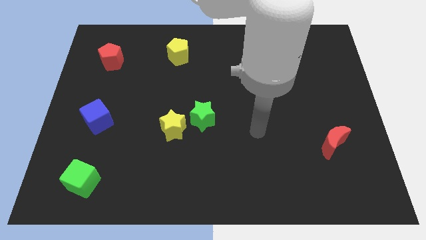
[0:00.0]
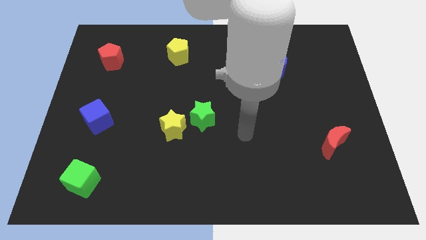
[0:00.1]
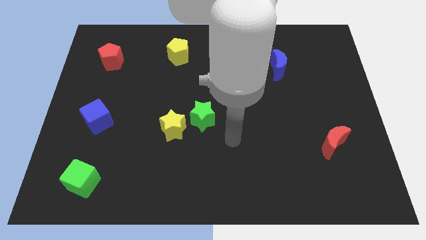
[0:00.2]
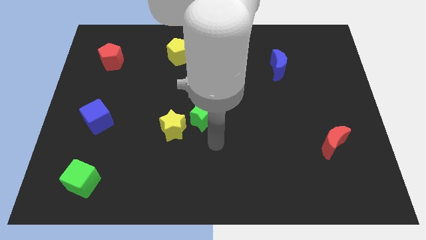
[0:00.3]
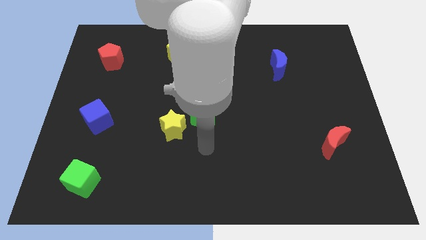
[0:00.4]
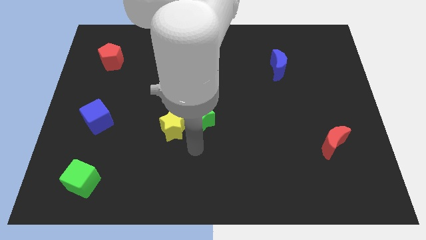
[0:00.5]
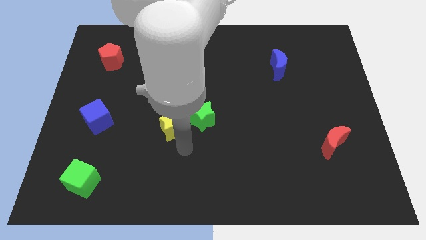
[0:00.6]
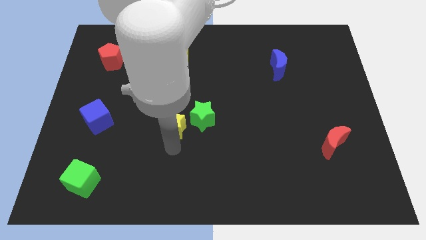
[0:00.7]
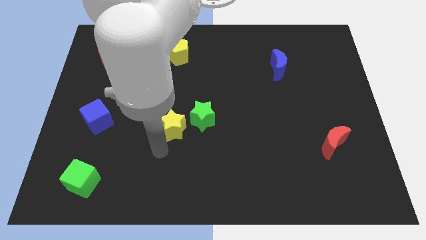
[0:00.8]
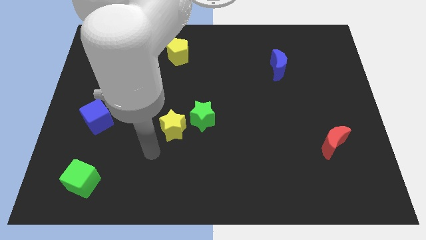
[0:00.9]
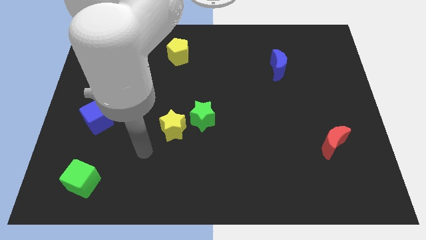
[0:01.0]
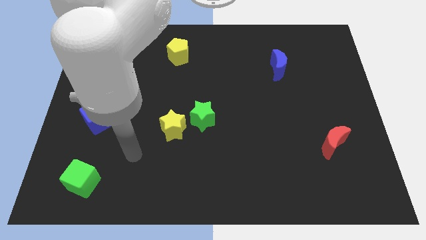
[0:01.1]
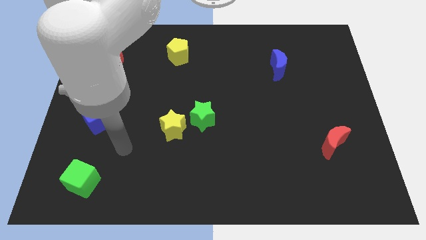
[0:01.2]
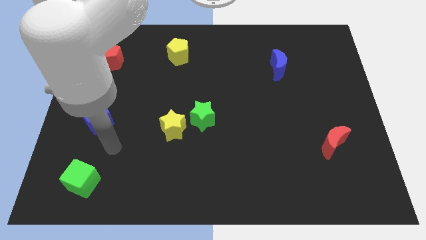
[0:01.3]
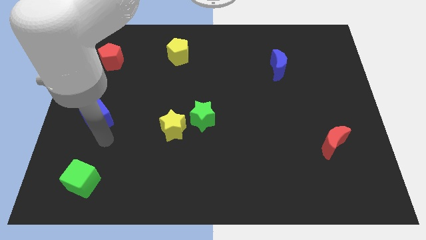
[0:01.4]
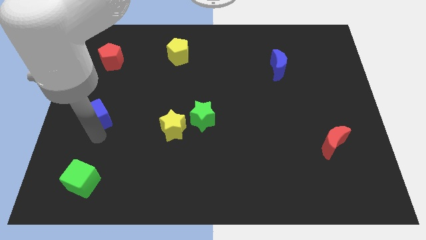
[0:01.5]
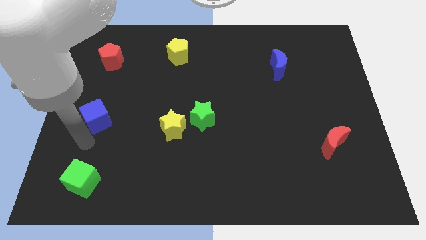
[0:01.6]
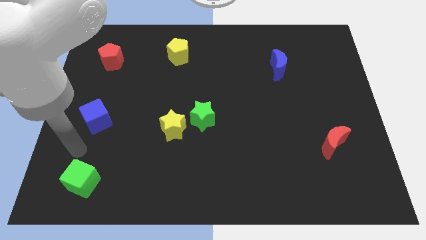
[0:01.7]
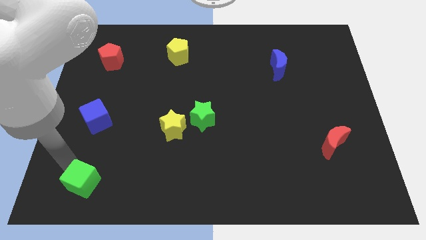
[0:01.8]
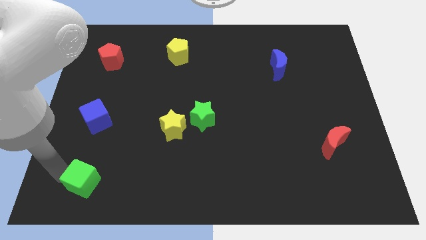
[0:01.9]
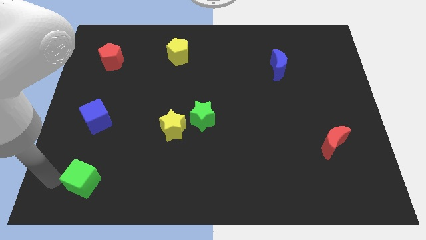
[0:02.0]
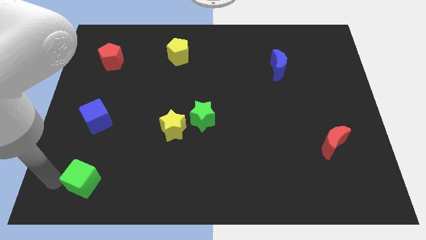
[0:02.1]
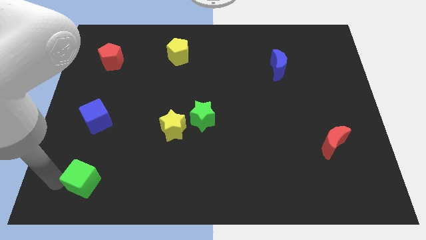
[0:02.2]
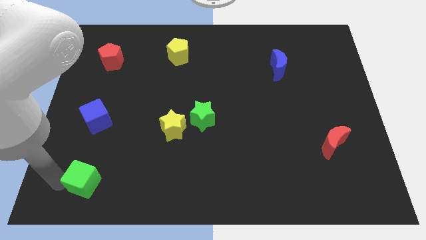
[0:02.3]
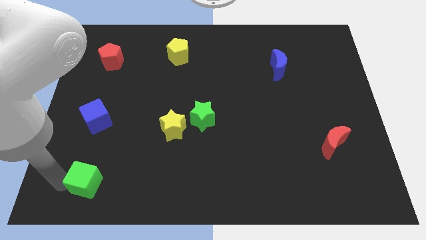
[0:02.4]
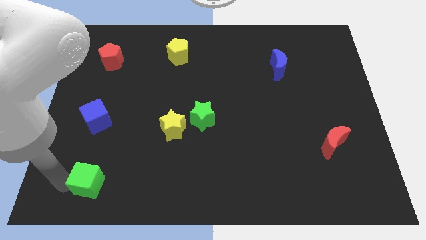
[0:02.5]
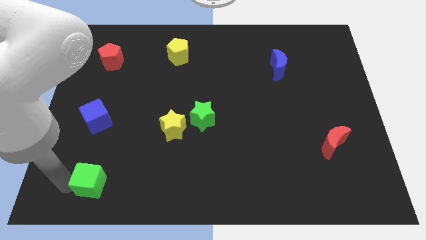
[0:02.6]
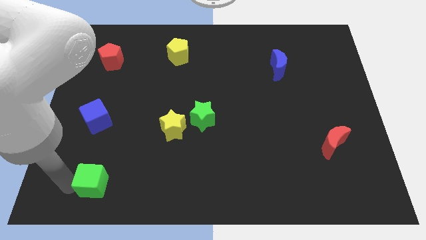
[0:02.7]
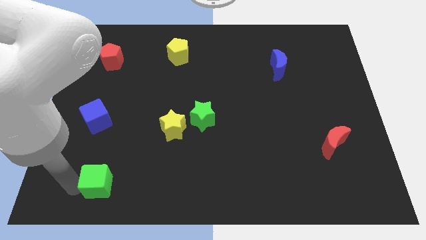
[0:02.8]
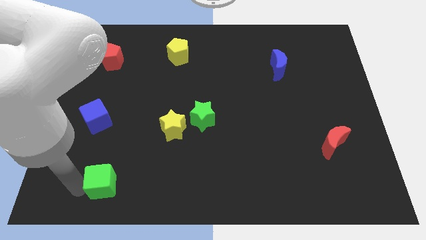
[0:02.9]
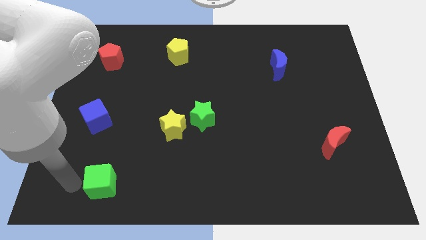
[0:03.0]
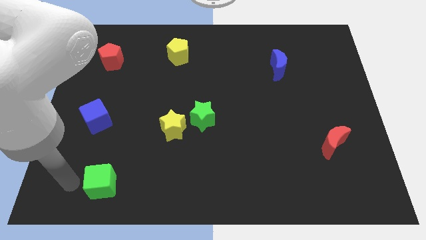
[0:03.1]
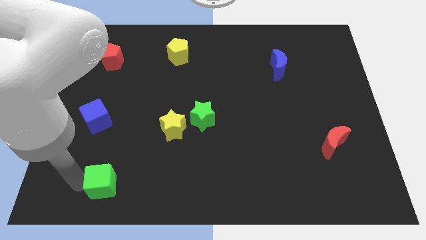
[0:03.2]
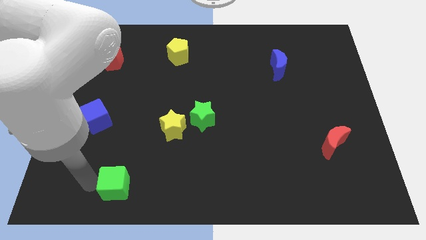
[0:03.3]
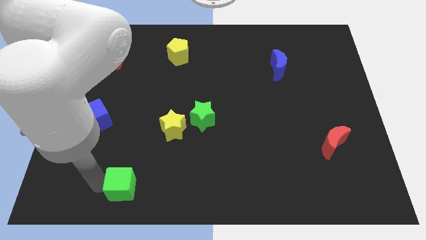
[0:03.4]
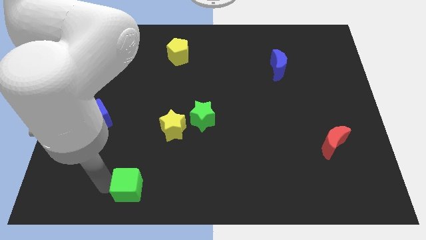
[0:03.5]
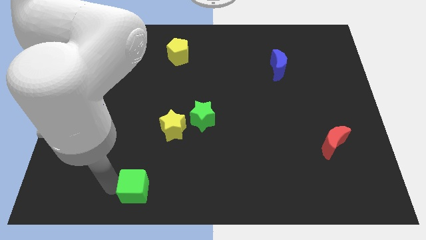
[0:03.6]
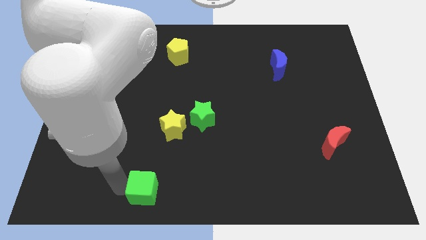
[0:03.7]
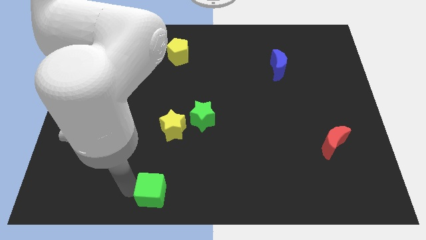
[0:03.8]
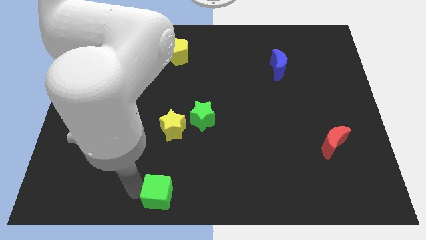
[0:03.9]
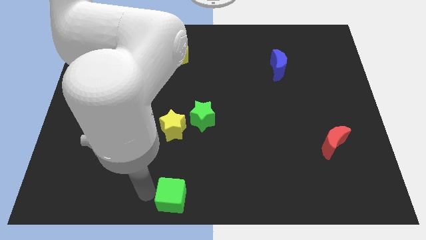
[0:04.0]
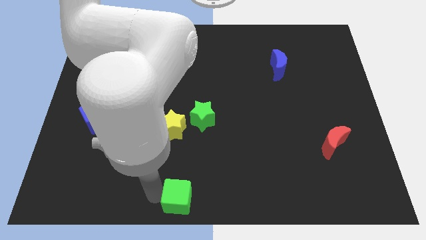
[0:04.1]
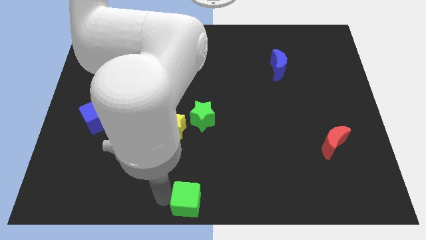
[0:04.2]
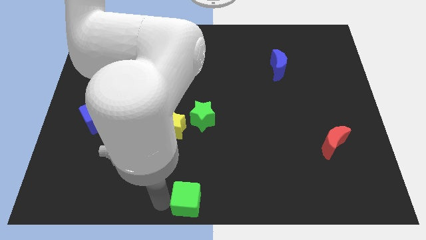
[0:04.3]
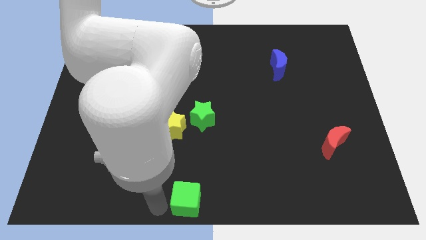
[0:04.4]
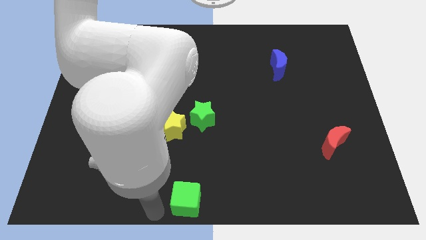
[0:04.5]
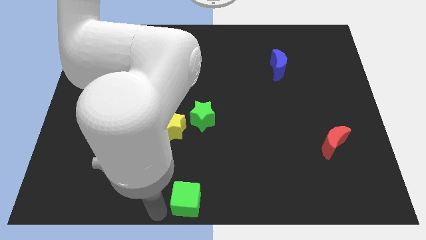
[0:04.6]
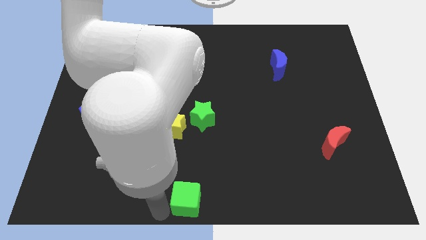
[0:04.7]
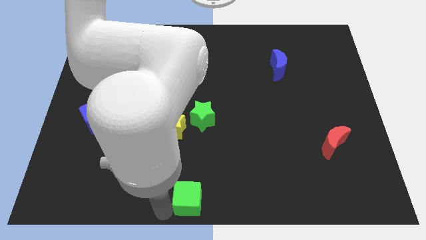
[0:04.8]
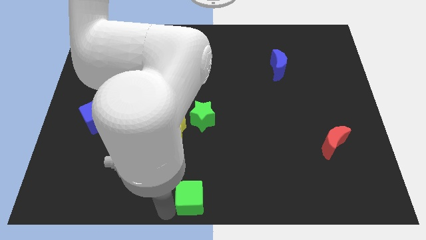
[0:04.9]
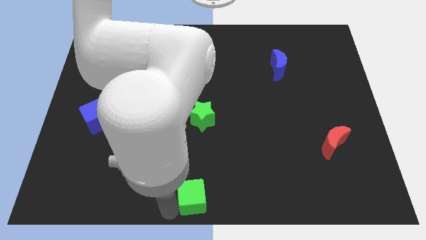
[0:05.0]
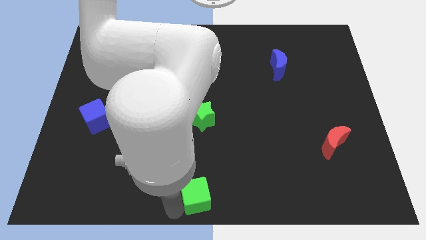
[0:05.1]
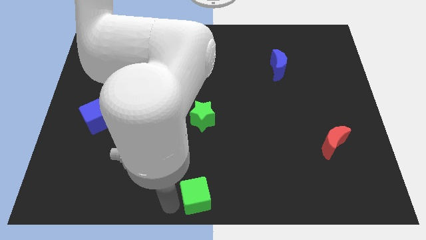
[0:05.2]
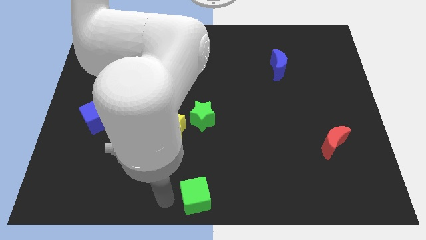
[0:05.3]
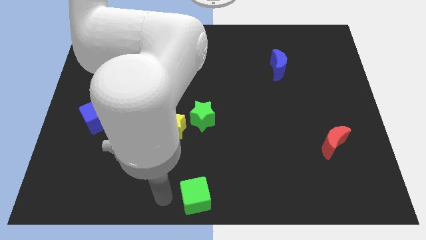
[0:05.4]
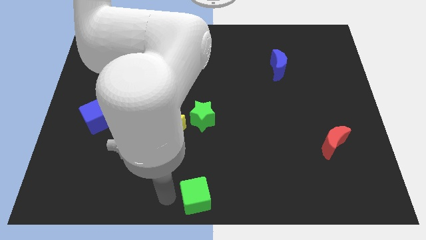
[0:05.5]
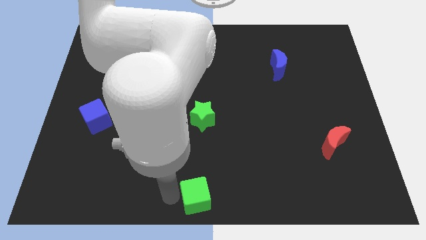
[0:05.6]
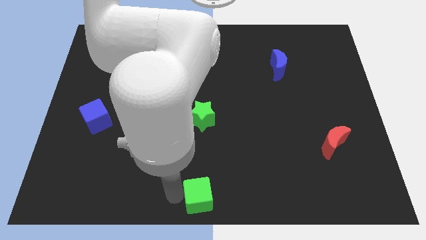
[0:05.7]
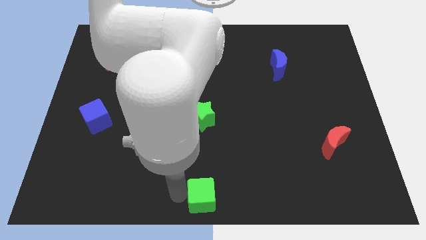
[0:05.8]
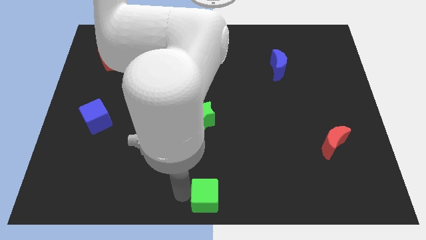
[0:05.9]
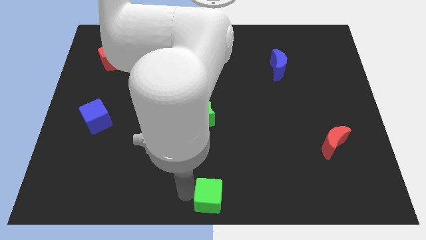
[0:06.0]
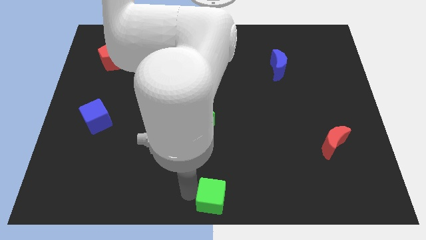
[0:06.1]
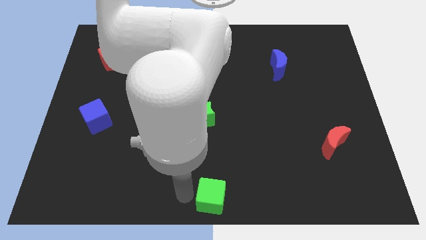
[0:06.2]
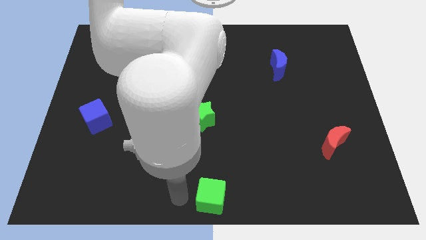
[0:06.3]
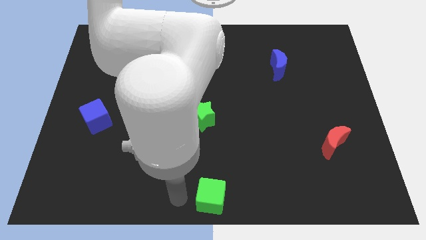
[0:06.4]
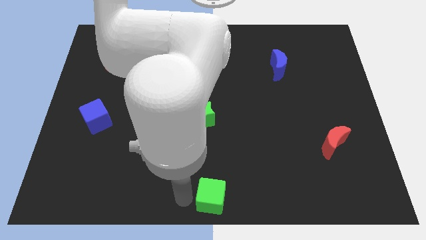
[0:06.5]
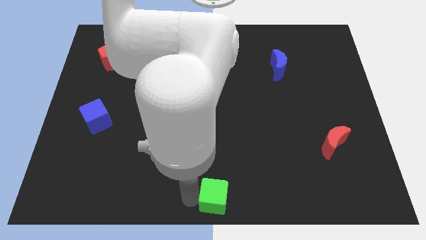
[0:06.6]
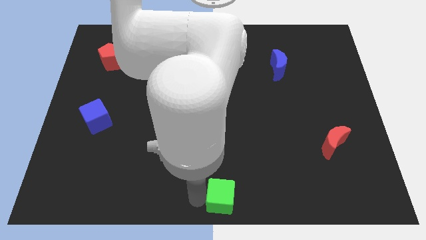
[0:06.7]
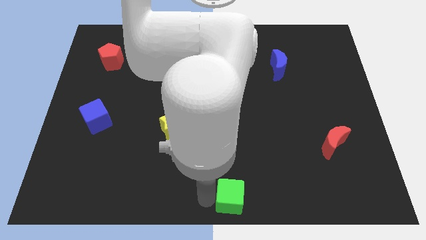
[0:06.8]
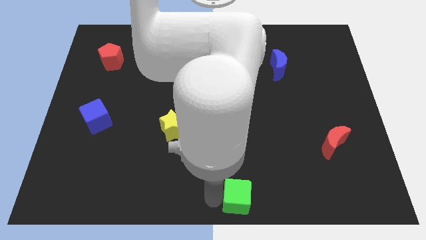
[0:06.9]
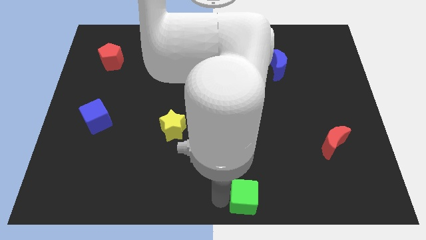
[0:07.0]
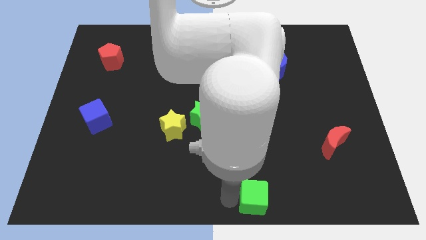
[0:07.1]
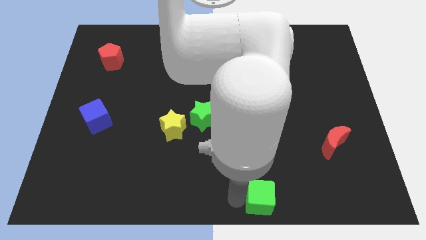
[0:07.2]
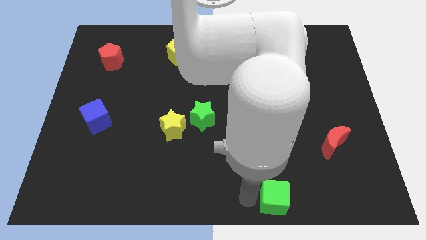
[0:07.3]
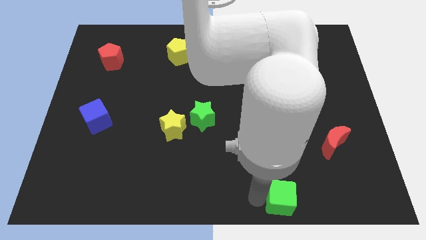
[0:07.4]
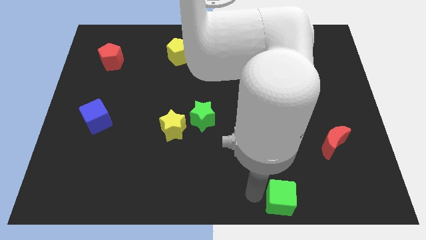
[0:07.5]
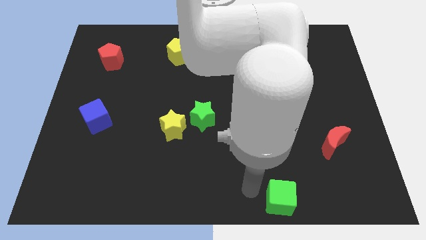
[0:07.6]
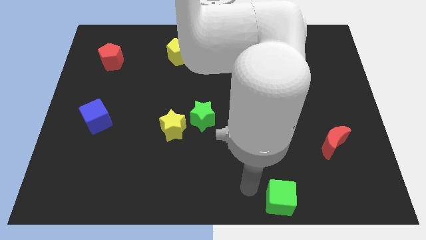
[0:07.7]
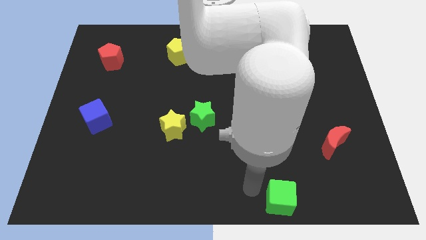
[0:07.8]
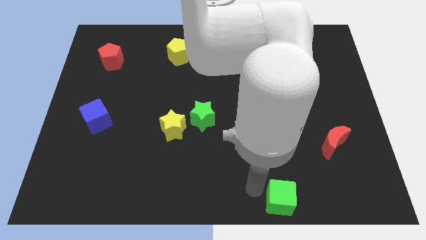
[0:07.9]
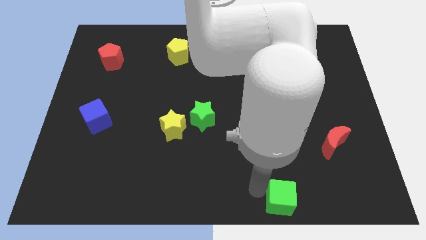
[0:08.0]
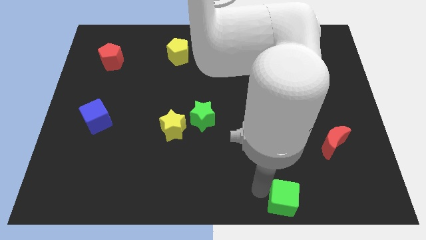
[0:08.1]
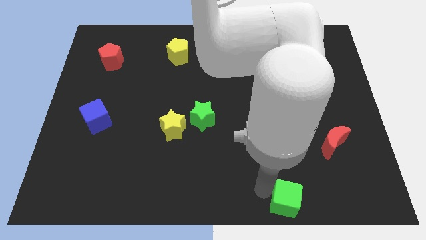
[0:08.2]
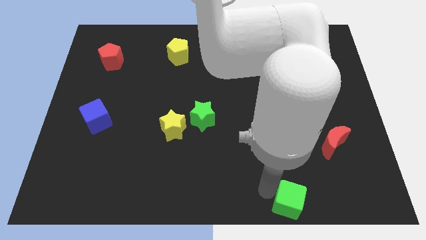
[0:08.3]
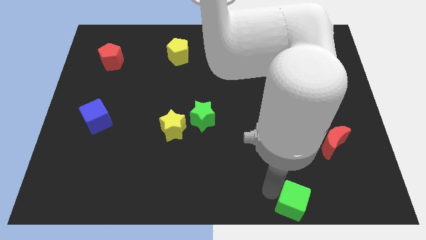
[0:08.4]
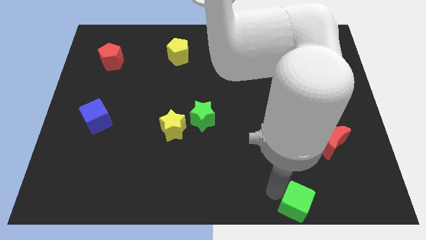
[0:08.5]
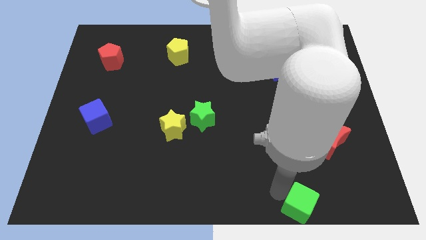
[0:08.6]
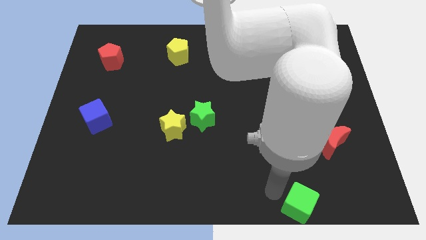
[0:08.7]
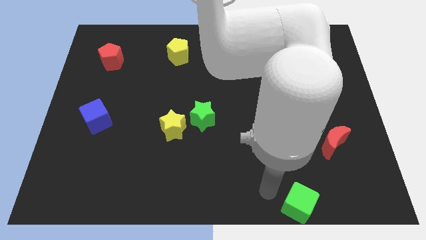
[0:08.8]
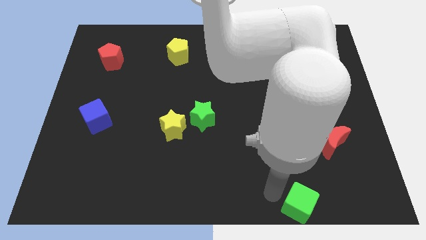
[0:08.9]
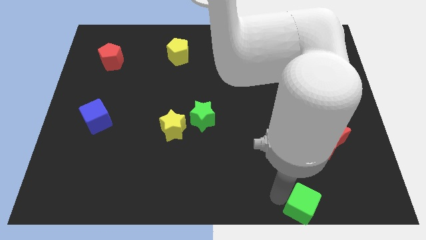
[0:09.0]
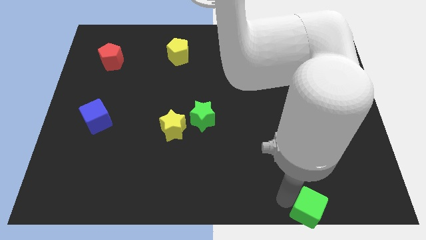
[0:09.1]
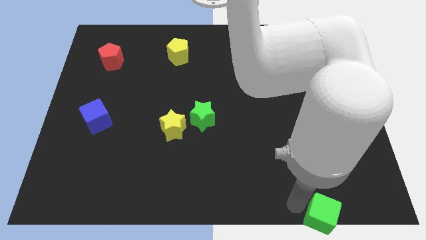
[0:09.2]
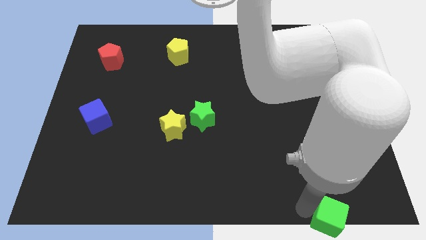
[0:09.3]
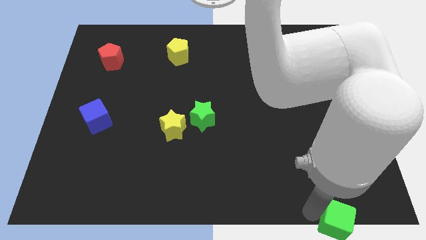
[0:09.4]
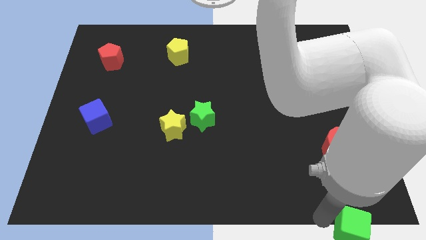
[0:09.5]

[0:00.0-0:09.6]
put the green cube to the bottom right corner
